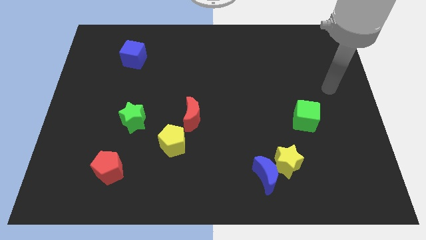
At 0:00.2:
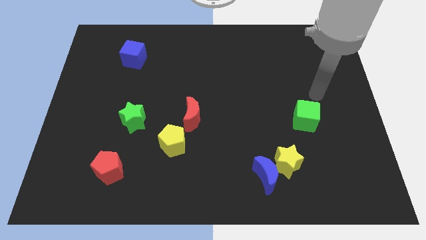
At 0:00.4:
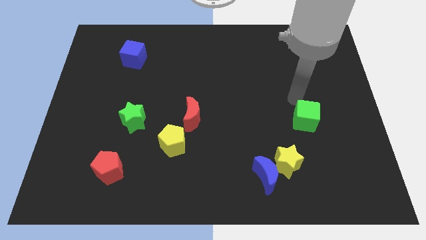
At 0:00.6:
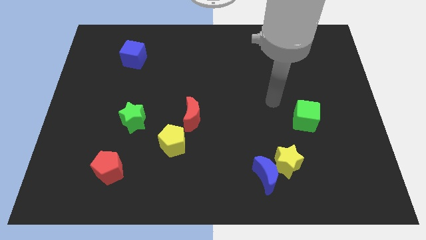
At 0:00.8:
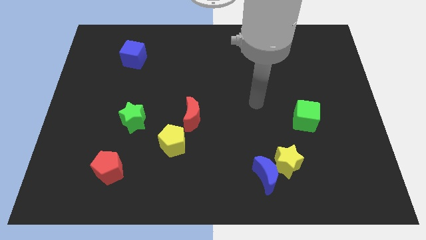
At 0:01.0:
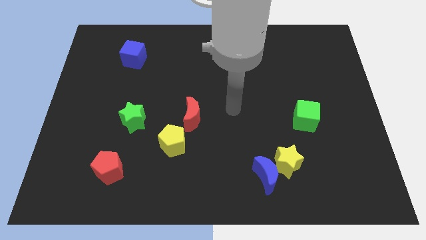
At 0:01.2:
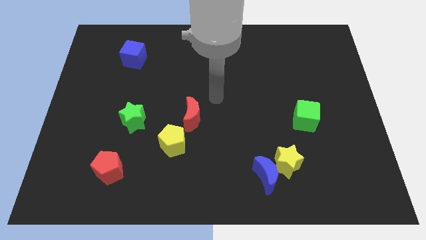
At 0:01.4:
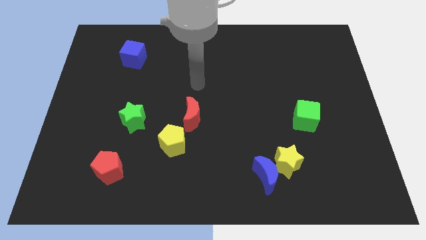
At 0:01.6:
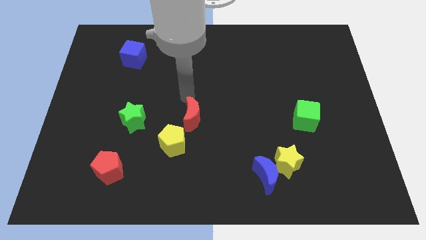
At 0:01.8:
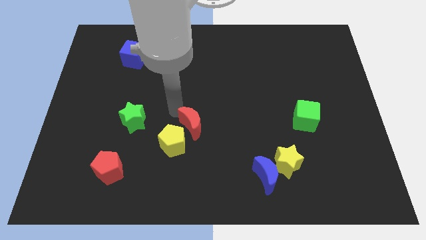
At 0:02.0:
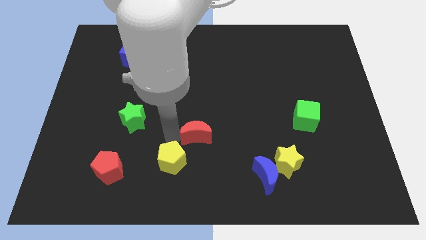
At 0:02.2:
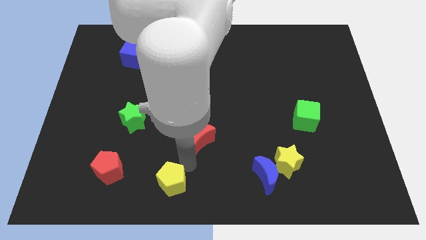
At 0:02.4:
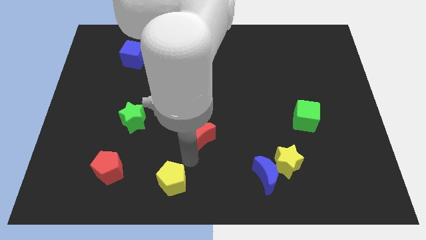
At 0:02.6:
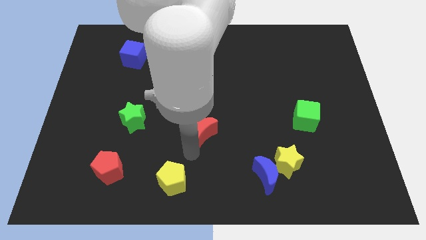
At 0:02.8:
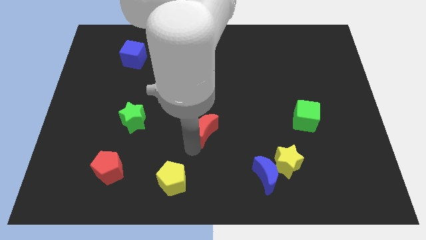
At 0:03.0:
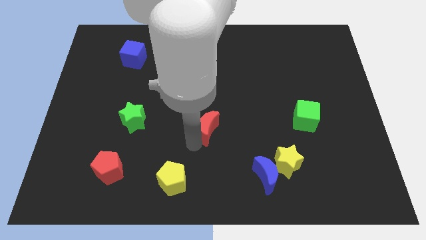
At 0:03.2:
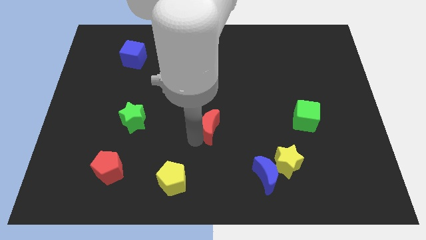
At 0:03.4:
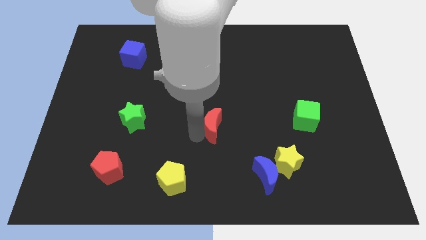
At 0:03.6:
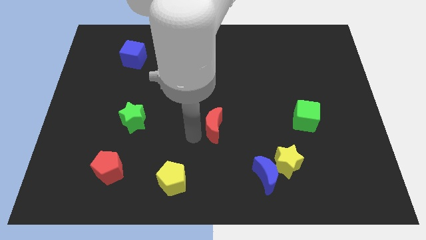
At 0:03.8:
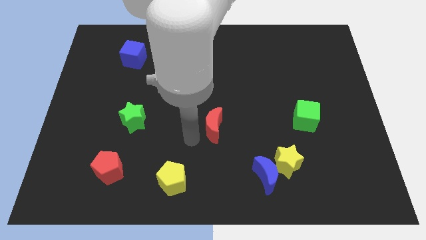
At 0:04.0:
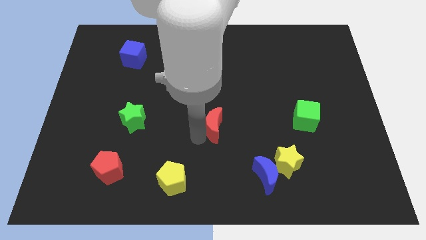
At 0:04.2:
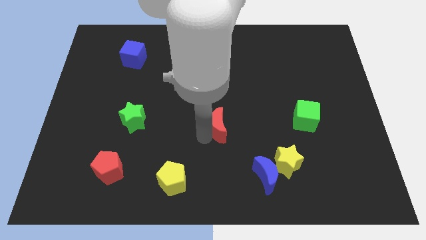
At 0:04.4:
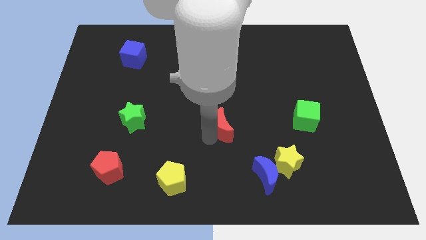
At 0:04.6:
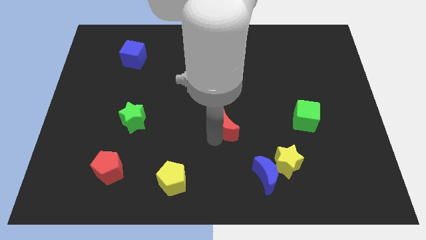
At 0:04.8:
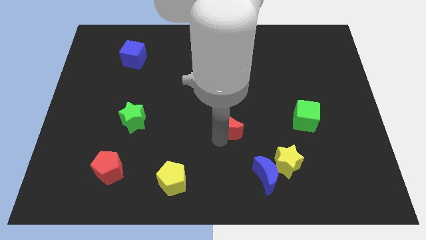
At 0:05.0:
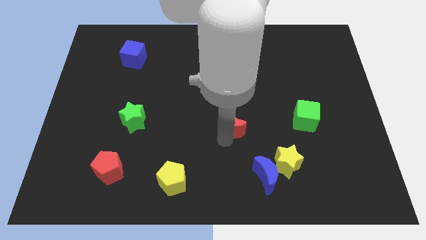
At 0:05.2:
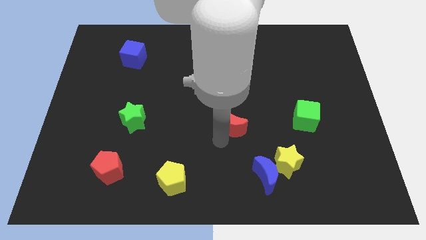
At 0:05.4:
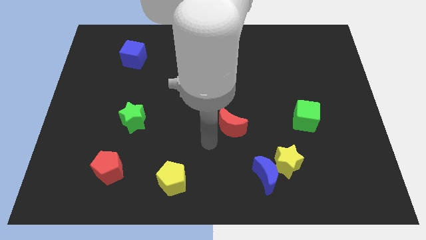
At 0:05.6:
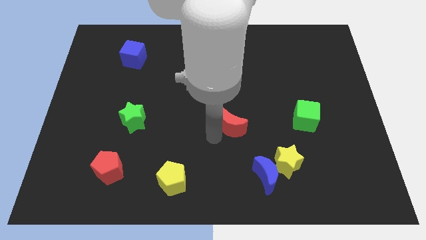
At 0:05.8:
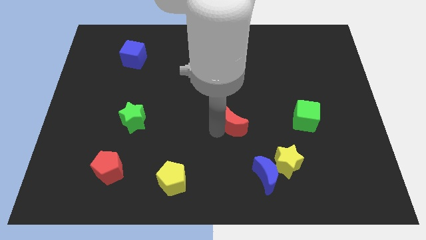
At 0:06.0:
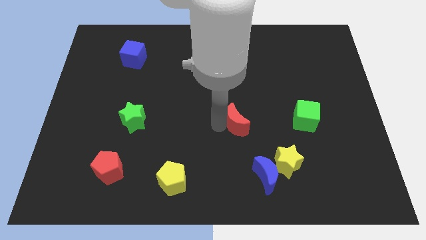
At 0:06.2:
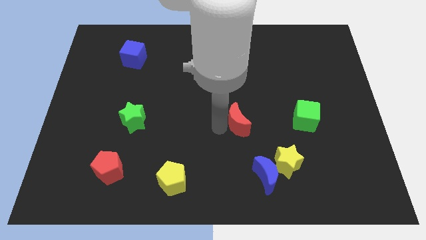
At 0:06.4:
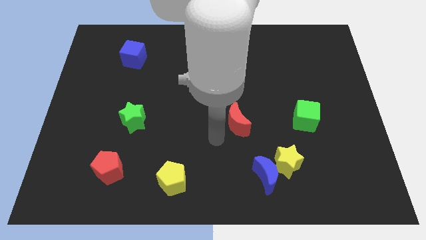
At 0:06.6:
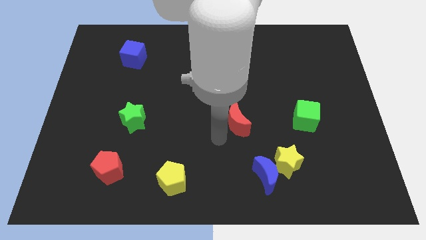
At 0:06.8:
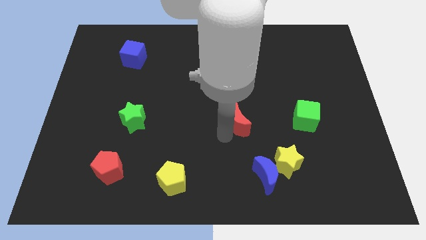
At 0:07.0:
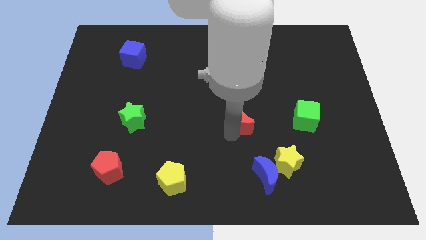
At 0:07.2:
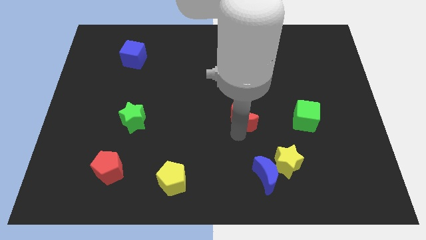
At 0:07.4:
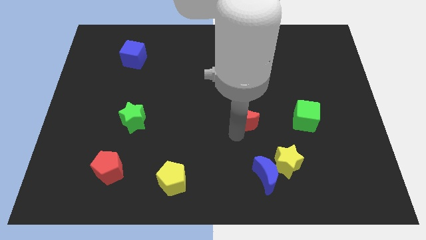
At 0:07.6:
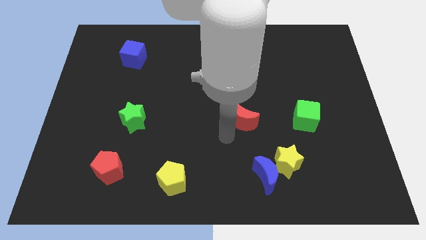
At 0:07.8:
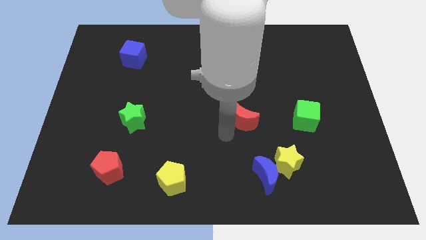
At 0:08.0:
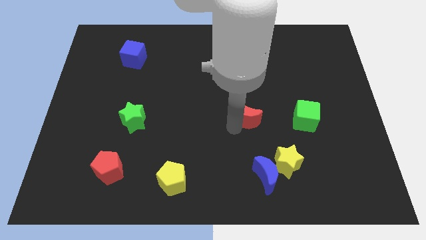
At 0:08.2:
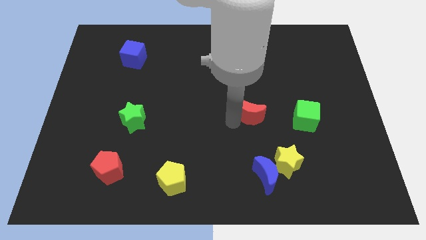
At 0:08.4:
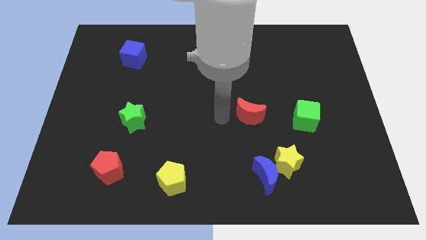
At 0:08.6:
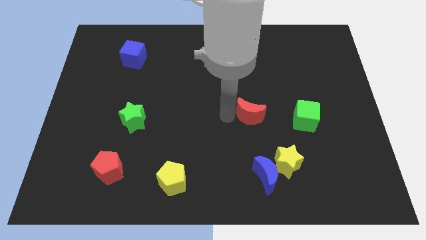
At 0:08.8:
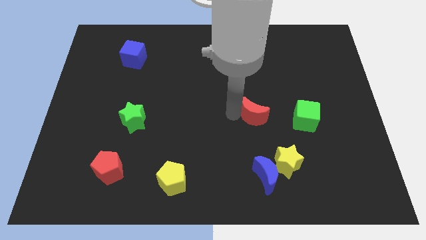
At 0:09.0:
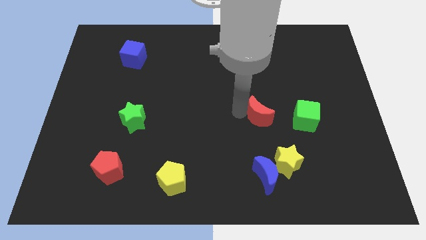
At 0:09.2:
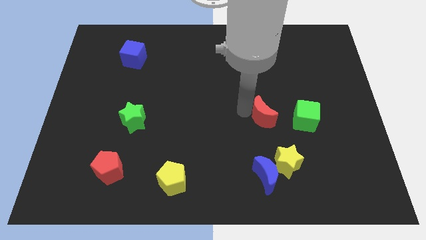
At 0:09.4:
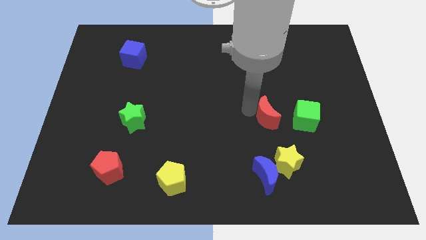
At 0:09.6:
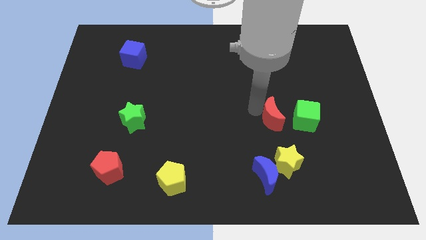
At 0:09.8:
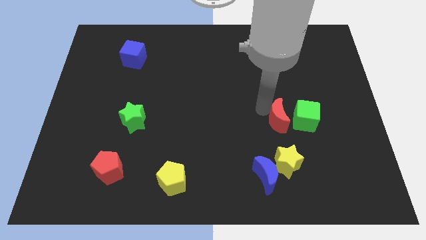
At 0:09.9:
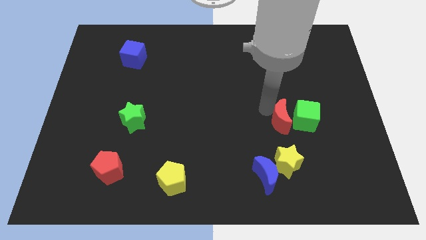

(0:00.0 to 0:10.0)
move the red moon towards the green cube

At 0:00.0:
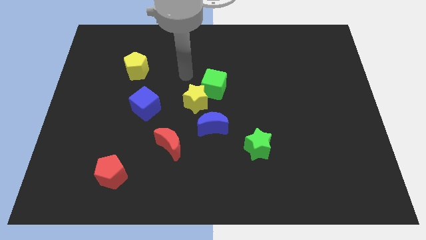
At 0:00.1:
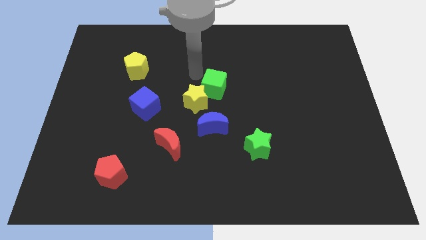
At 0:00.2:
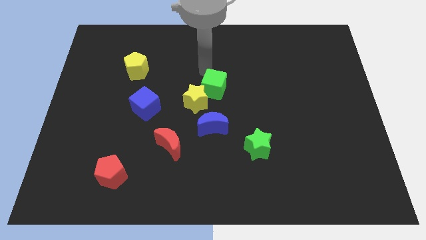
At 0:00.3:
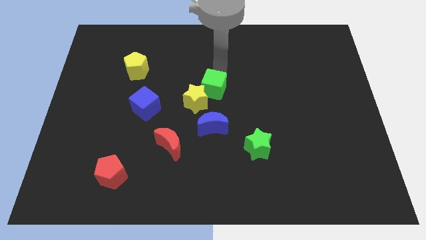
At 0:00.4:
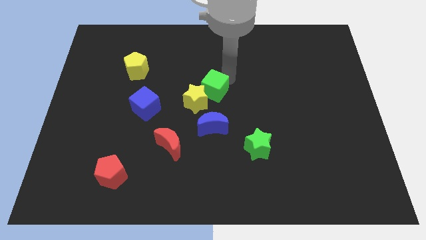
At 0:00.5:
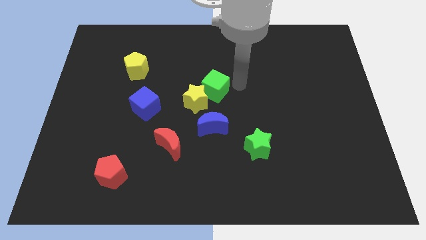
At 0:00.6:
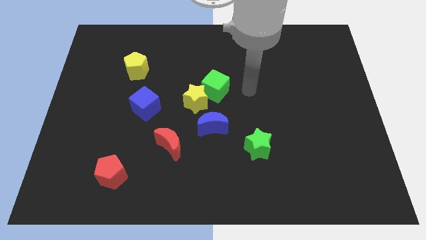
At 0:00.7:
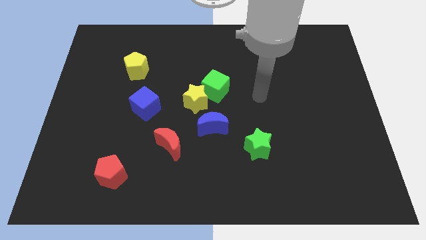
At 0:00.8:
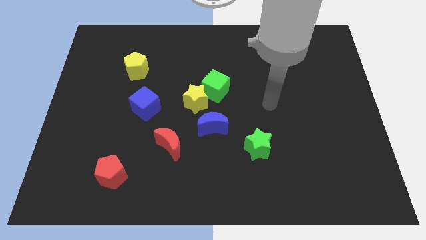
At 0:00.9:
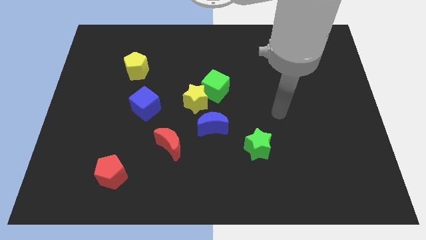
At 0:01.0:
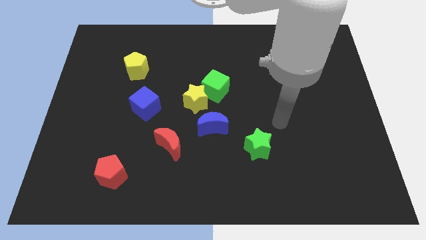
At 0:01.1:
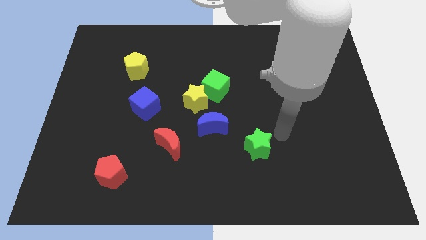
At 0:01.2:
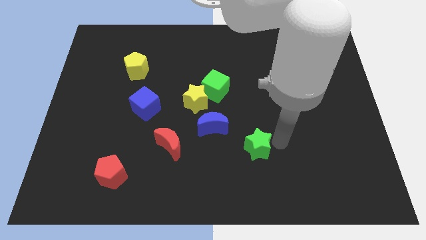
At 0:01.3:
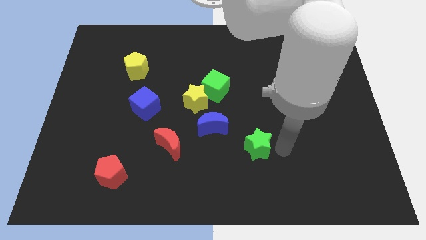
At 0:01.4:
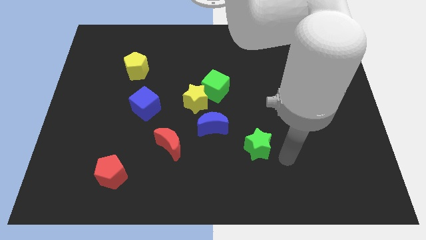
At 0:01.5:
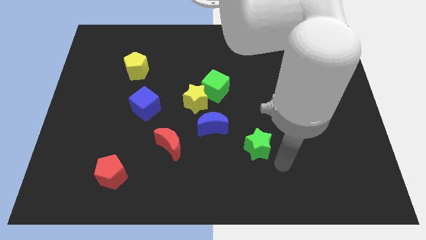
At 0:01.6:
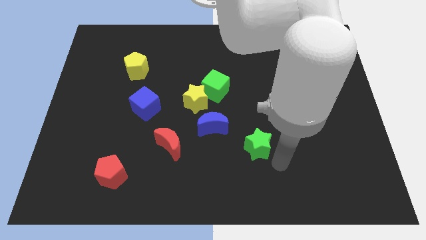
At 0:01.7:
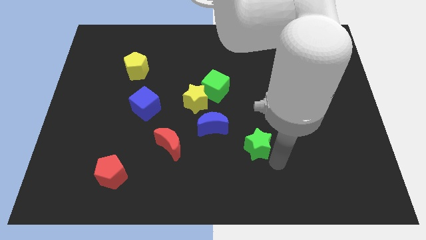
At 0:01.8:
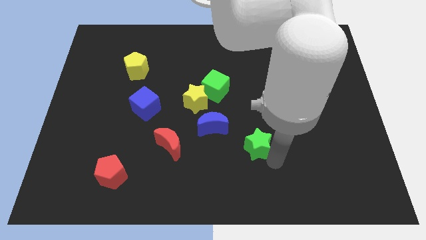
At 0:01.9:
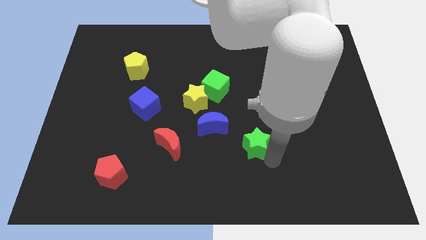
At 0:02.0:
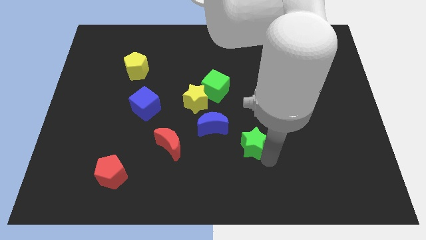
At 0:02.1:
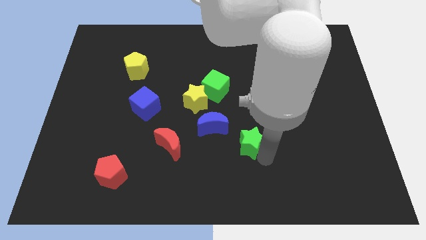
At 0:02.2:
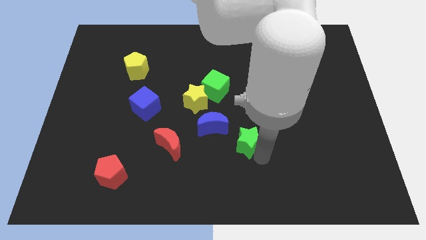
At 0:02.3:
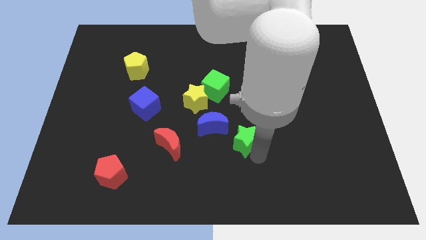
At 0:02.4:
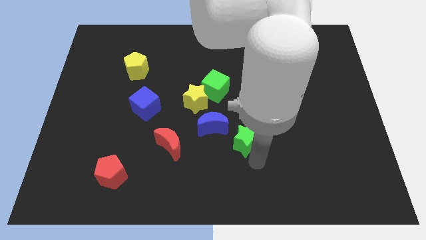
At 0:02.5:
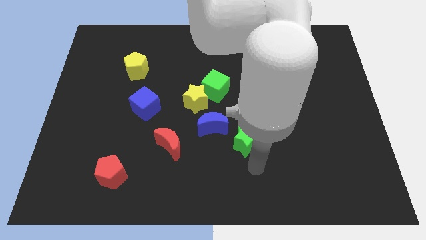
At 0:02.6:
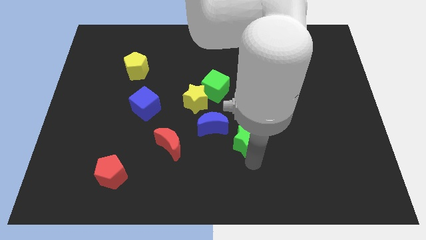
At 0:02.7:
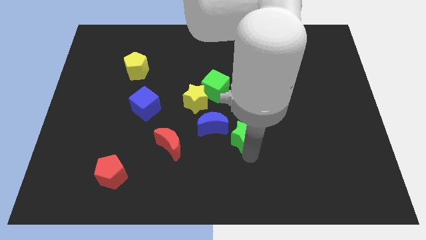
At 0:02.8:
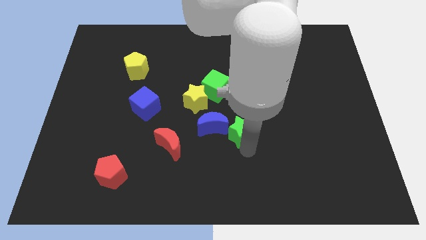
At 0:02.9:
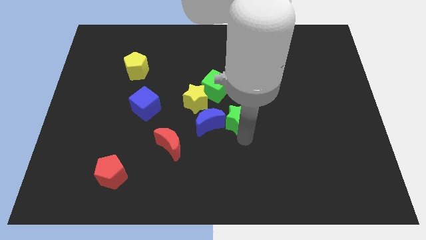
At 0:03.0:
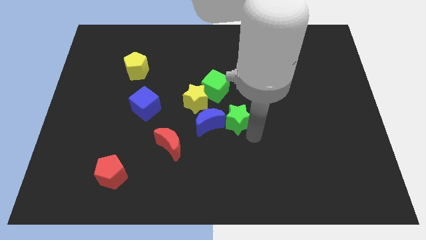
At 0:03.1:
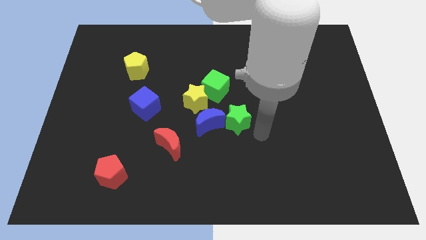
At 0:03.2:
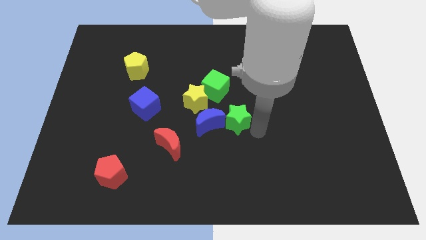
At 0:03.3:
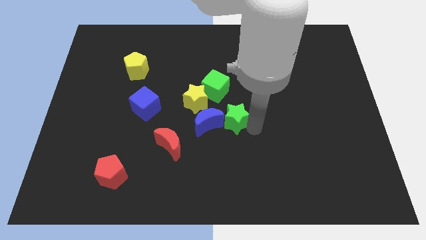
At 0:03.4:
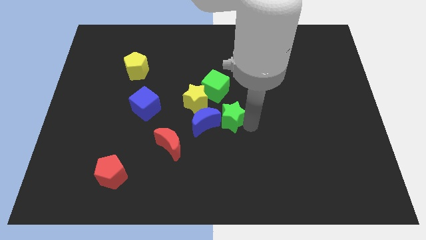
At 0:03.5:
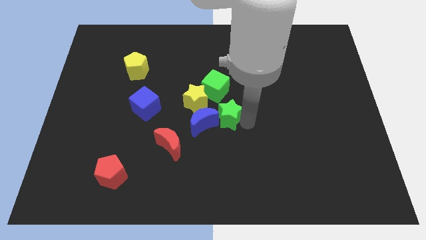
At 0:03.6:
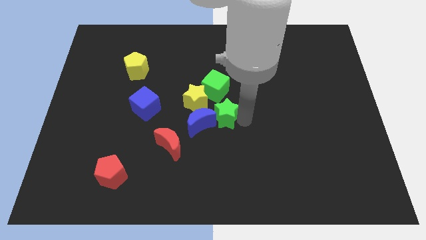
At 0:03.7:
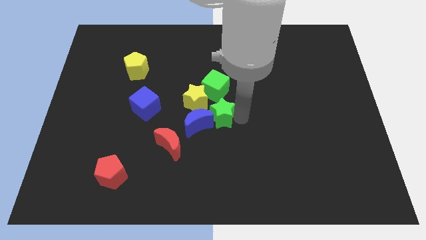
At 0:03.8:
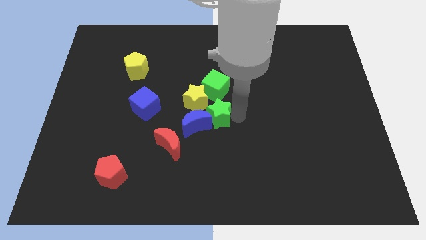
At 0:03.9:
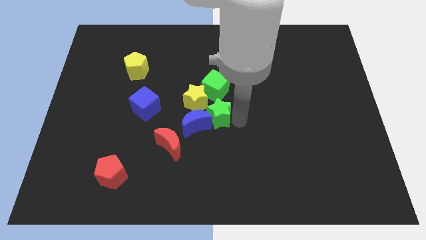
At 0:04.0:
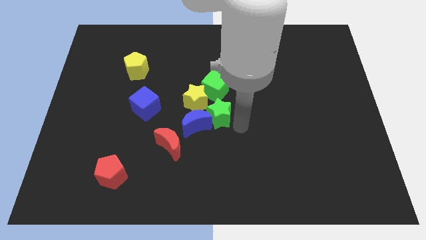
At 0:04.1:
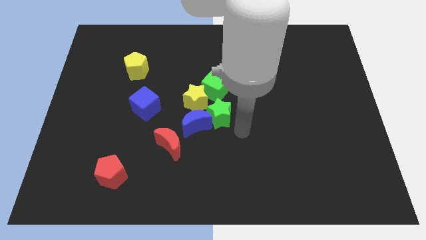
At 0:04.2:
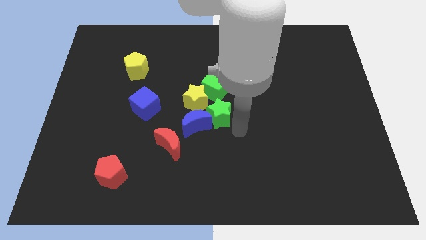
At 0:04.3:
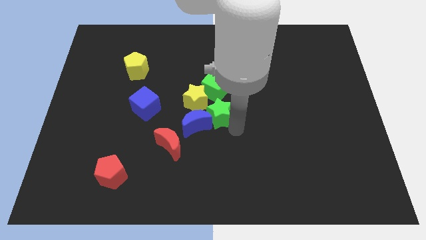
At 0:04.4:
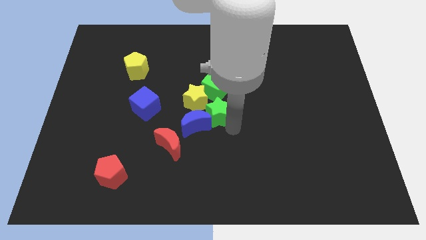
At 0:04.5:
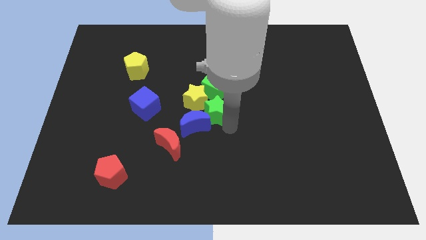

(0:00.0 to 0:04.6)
put the green star towards the yellow star
